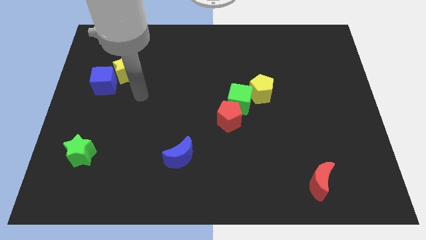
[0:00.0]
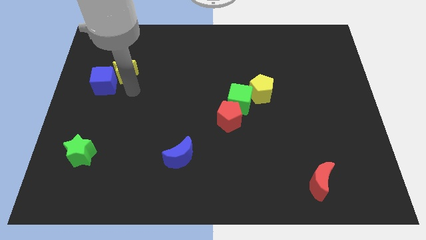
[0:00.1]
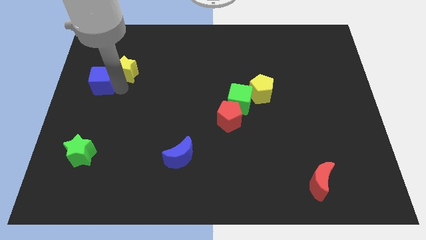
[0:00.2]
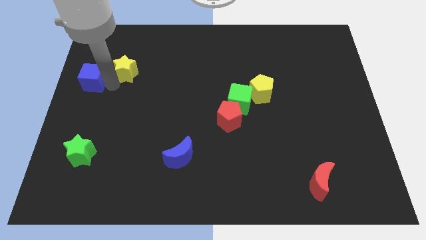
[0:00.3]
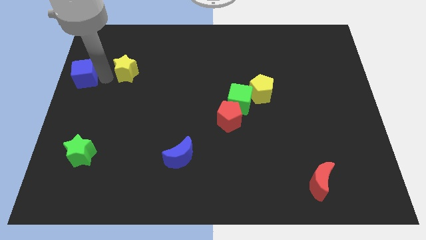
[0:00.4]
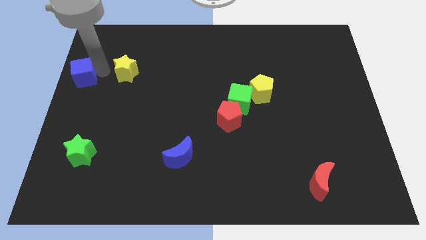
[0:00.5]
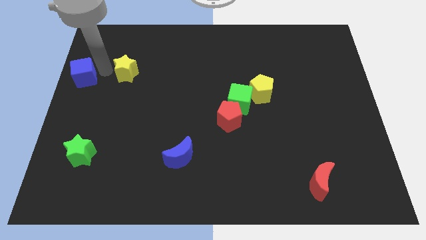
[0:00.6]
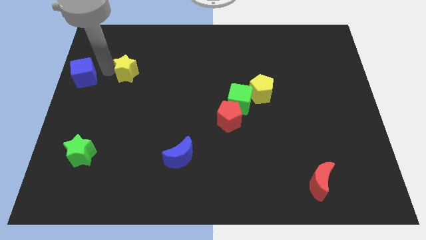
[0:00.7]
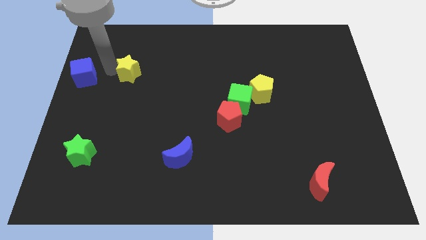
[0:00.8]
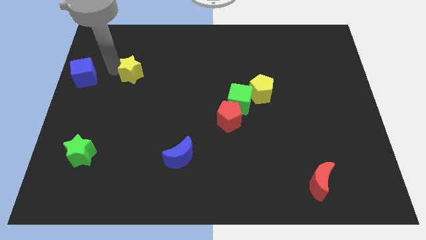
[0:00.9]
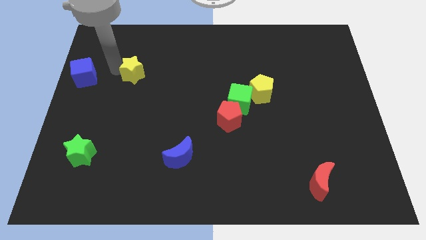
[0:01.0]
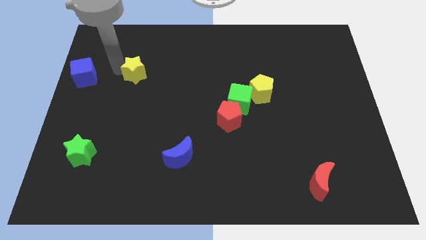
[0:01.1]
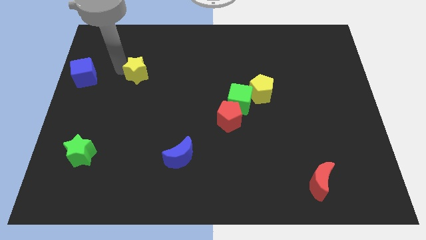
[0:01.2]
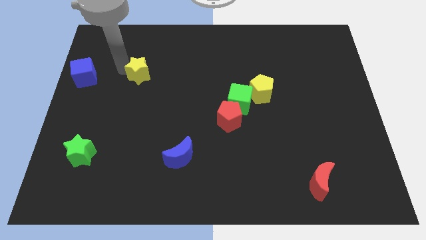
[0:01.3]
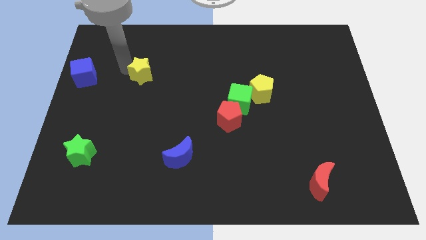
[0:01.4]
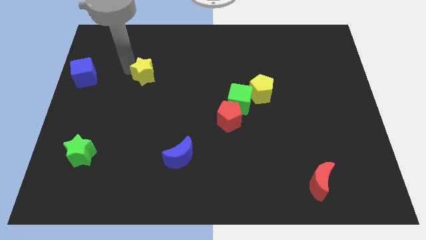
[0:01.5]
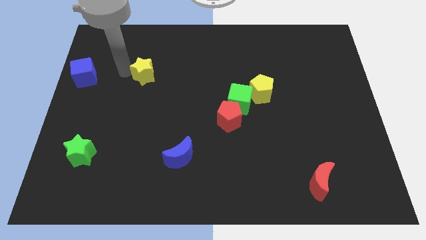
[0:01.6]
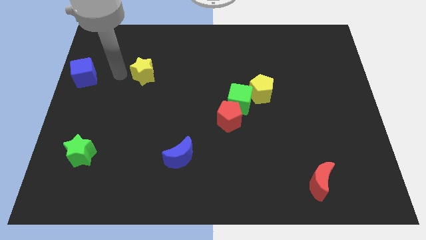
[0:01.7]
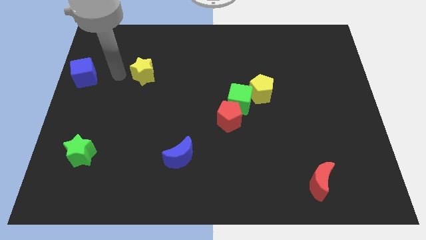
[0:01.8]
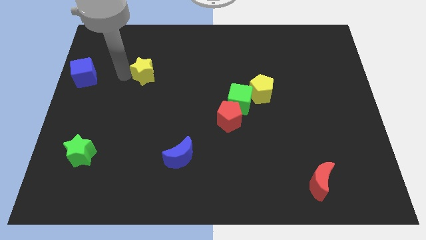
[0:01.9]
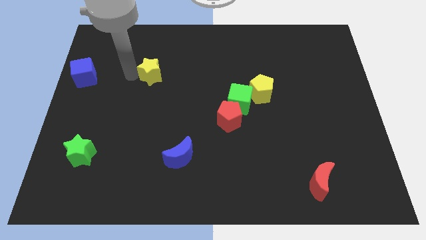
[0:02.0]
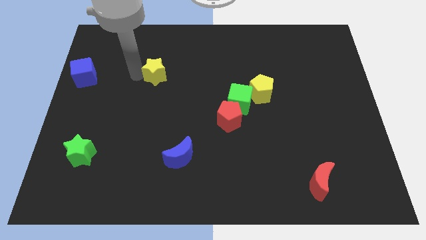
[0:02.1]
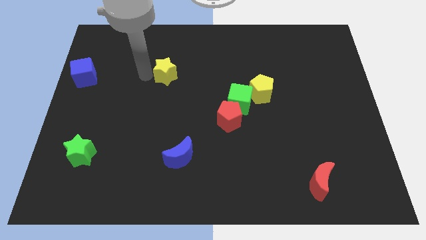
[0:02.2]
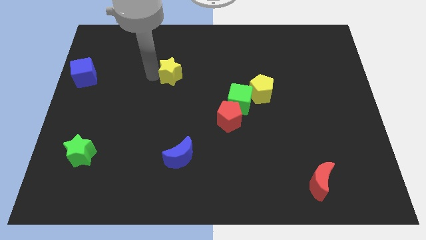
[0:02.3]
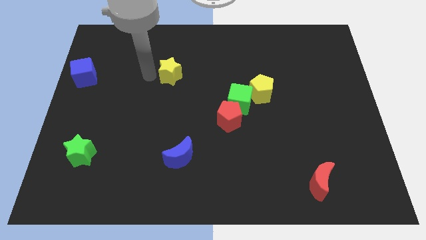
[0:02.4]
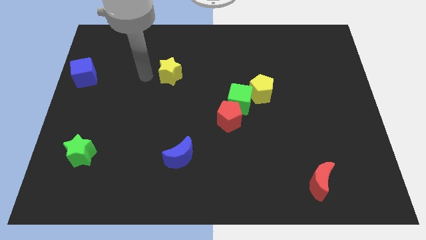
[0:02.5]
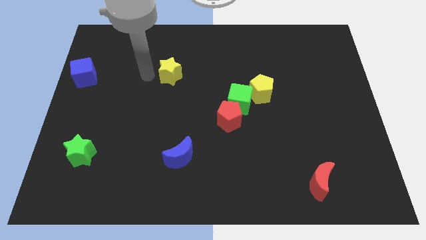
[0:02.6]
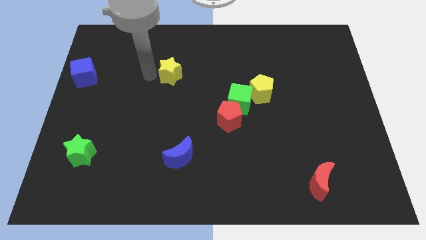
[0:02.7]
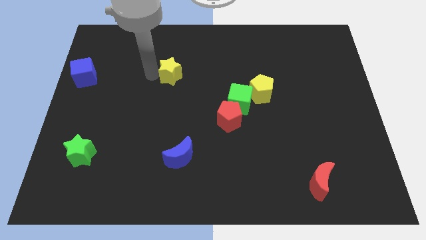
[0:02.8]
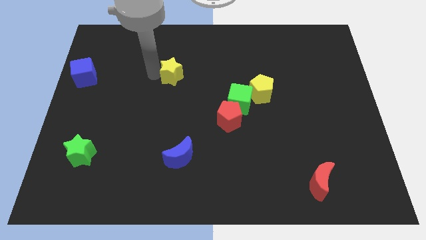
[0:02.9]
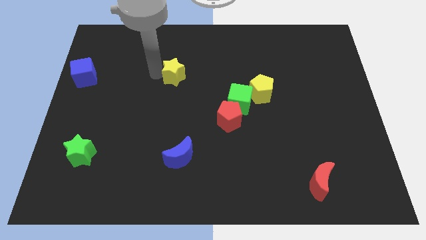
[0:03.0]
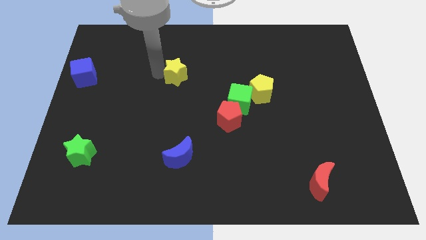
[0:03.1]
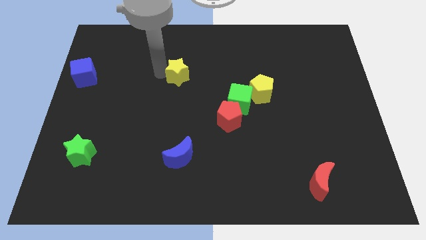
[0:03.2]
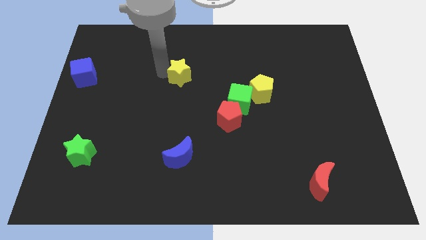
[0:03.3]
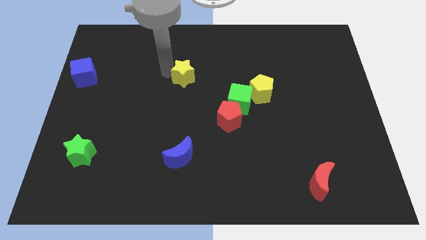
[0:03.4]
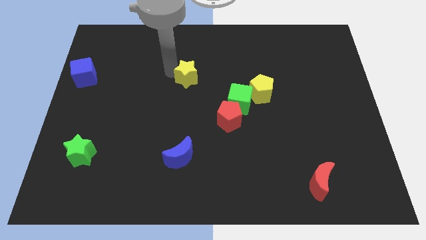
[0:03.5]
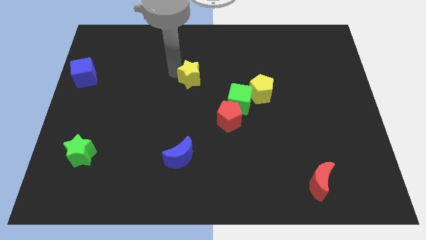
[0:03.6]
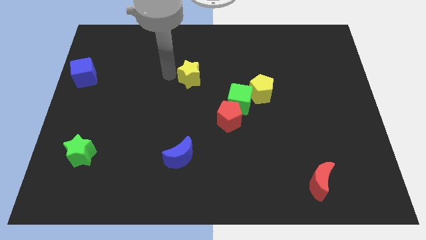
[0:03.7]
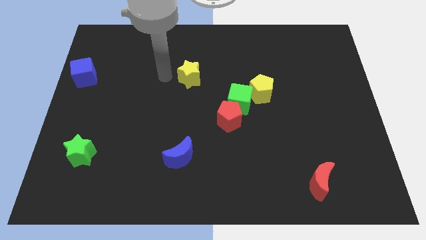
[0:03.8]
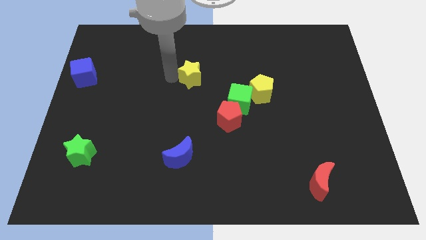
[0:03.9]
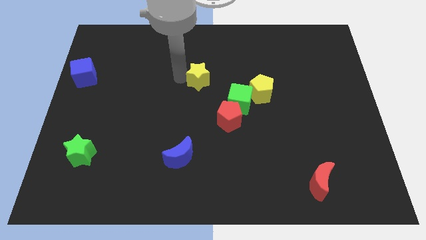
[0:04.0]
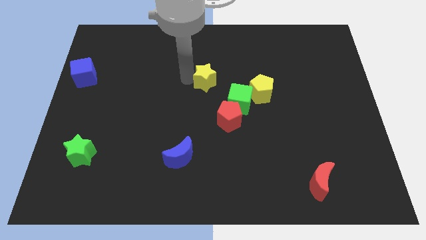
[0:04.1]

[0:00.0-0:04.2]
push the yellow star to the right

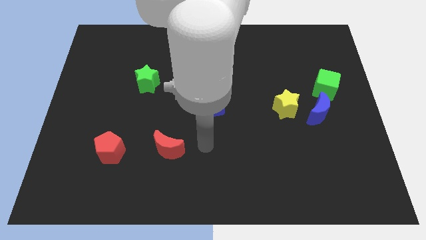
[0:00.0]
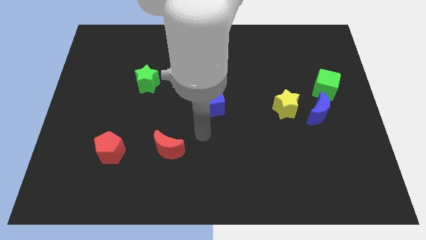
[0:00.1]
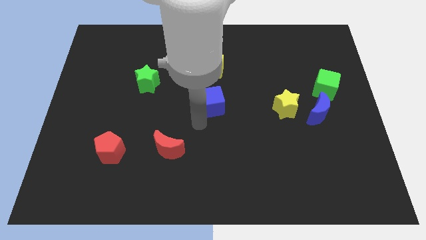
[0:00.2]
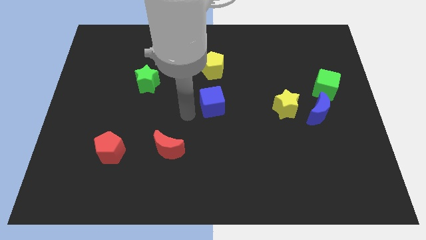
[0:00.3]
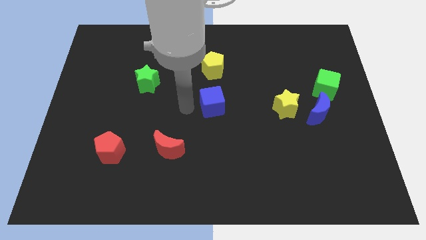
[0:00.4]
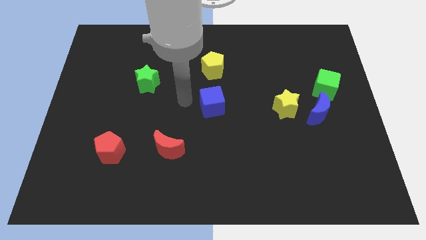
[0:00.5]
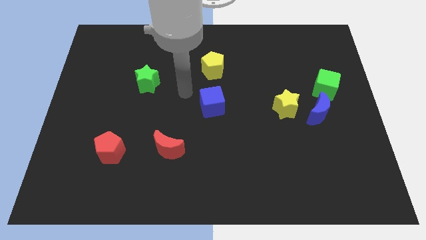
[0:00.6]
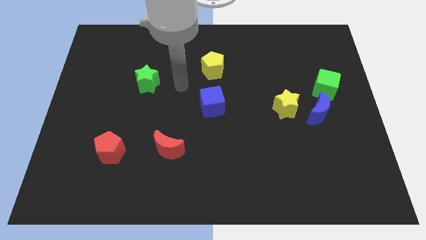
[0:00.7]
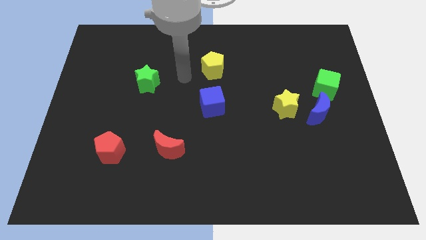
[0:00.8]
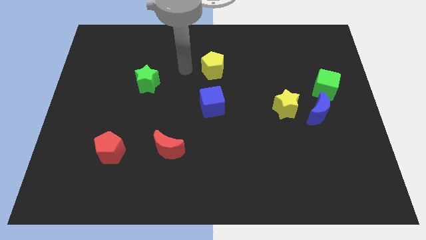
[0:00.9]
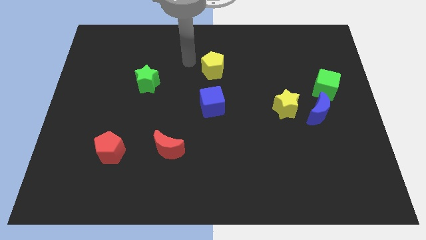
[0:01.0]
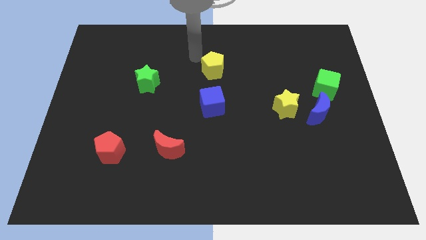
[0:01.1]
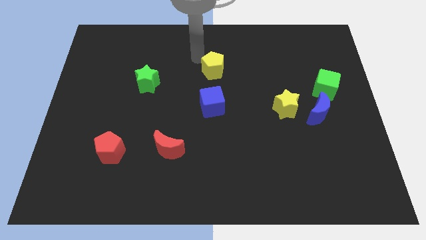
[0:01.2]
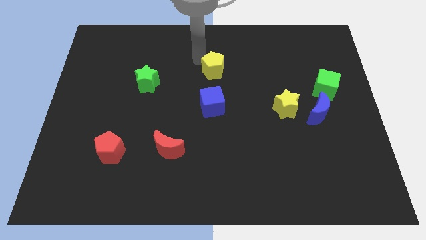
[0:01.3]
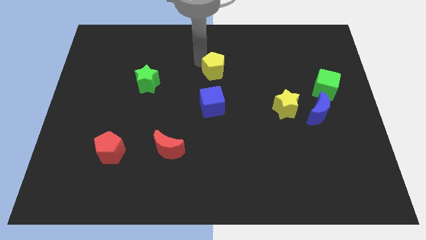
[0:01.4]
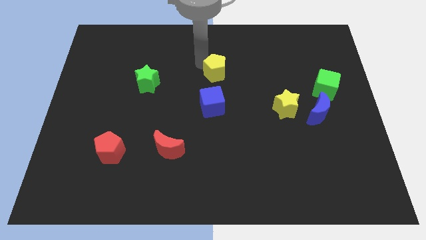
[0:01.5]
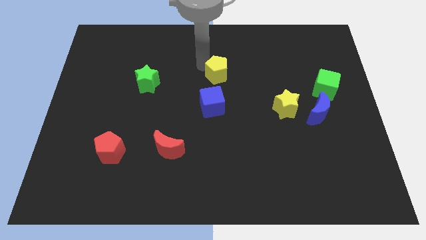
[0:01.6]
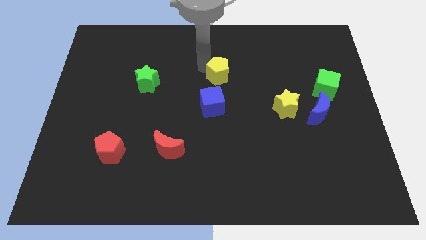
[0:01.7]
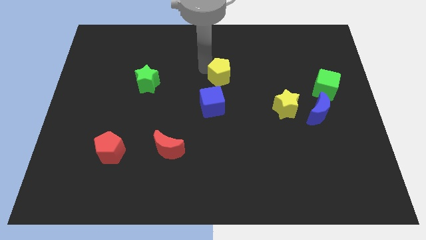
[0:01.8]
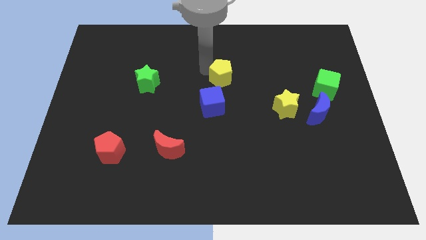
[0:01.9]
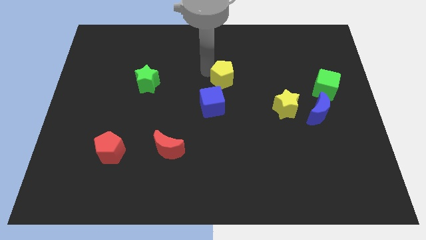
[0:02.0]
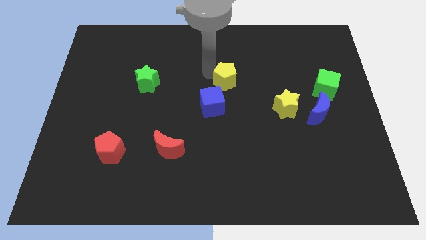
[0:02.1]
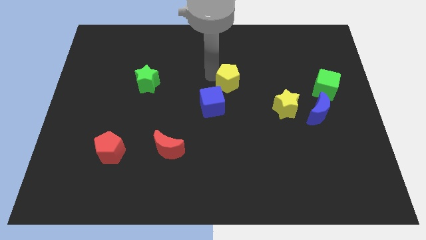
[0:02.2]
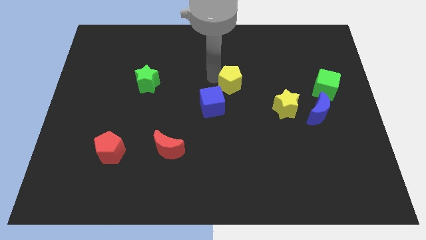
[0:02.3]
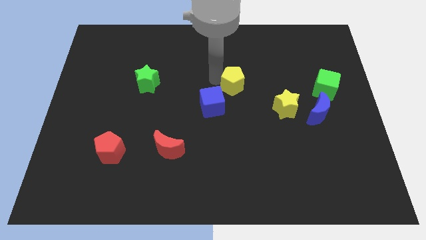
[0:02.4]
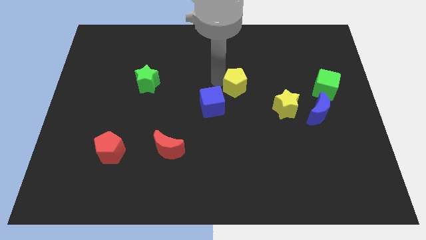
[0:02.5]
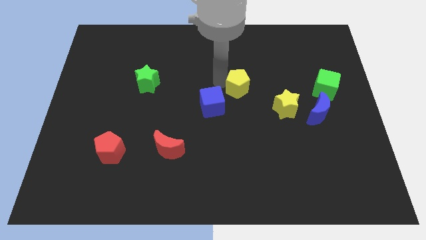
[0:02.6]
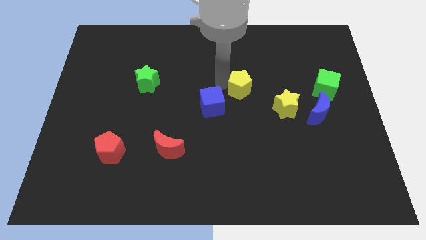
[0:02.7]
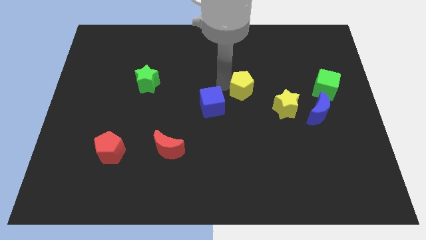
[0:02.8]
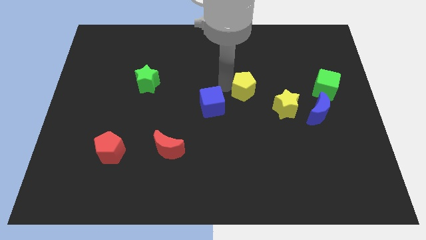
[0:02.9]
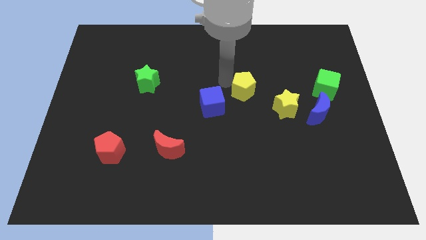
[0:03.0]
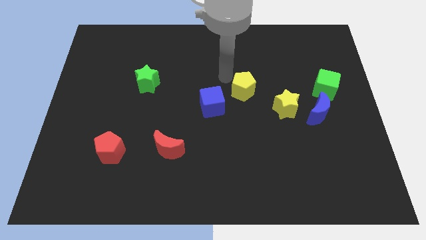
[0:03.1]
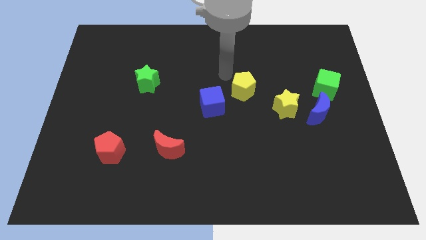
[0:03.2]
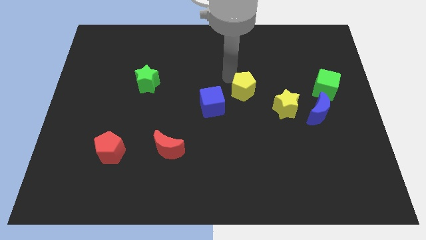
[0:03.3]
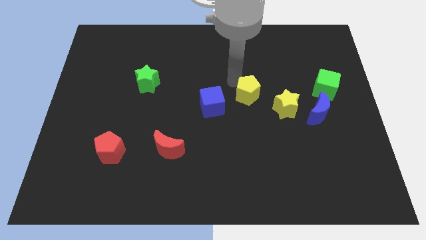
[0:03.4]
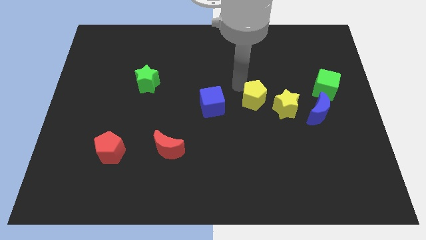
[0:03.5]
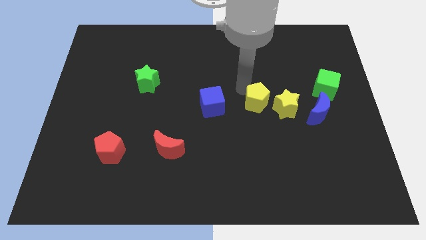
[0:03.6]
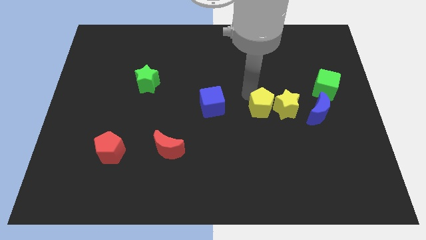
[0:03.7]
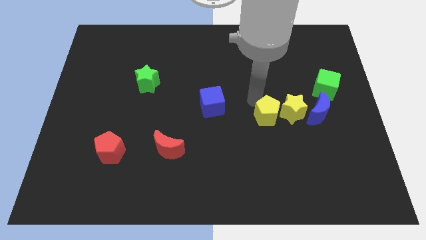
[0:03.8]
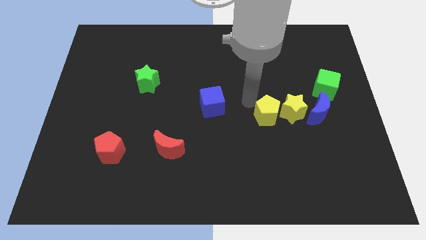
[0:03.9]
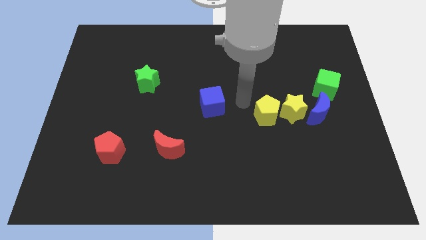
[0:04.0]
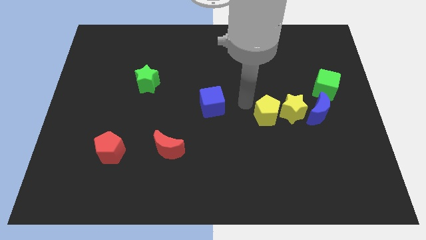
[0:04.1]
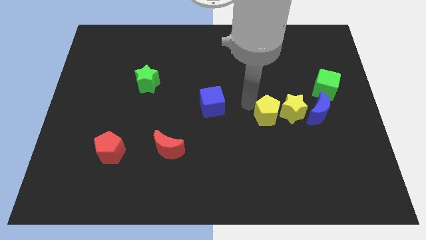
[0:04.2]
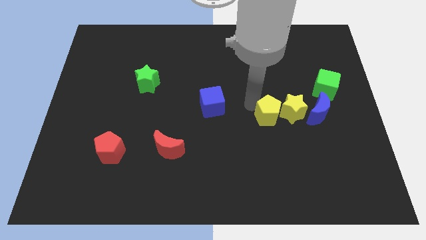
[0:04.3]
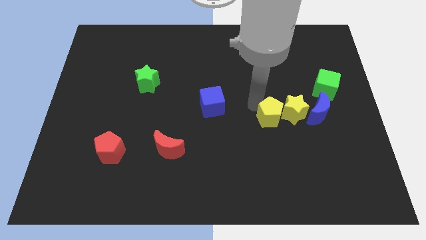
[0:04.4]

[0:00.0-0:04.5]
push the yellow pentagon downwards and right
